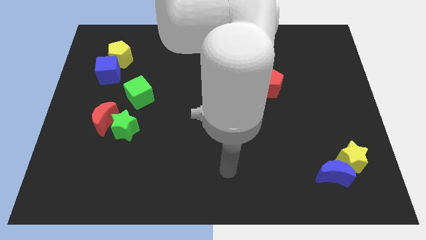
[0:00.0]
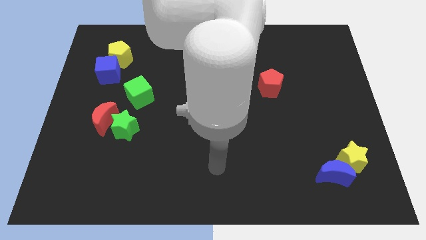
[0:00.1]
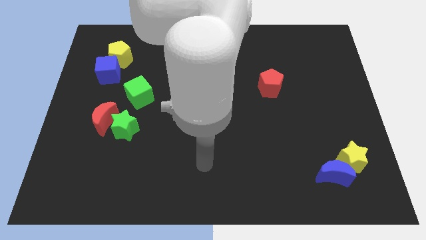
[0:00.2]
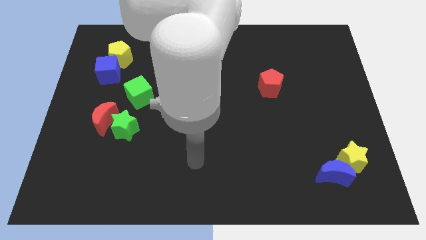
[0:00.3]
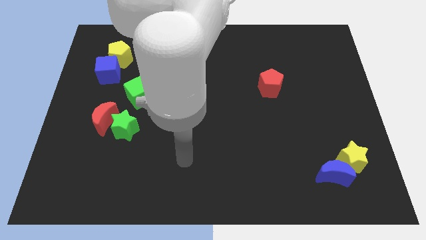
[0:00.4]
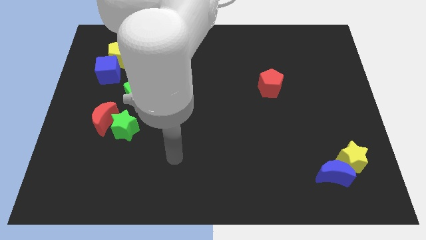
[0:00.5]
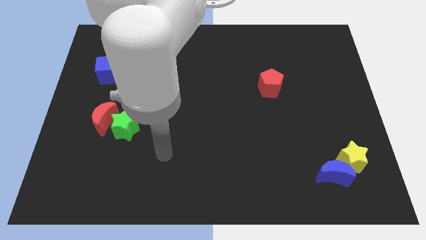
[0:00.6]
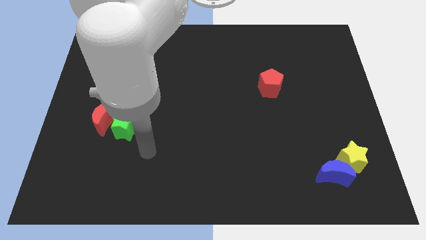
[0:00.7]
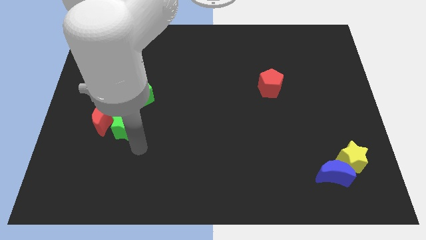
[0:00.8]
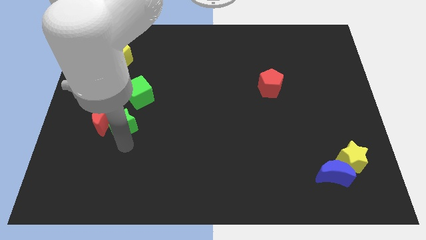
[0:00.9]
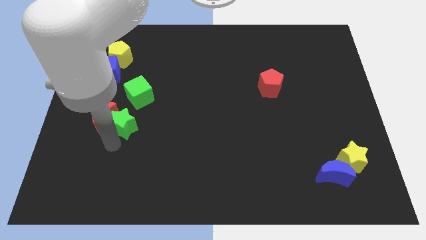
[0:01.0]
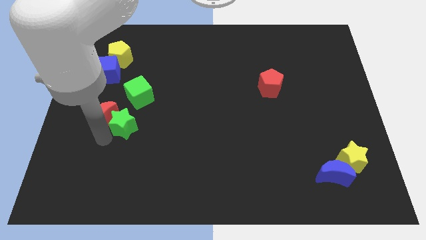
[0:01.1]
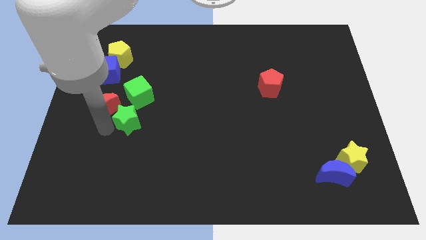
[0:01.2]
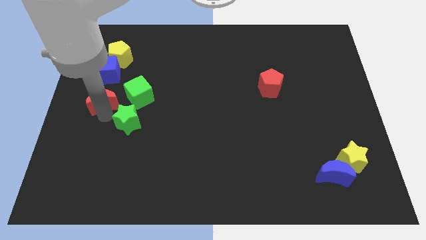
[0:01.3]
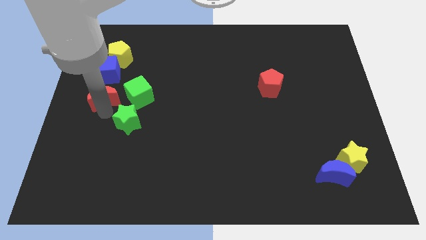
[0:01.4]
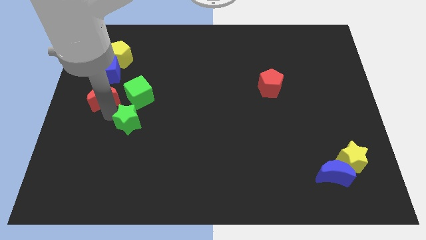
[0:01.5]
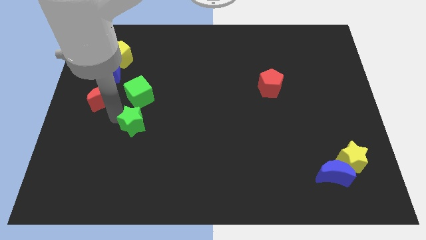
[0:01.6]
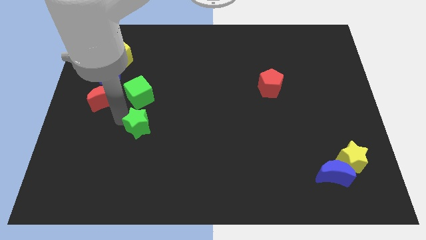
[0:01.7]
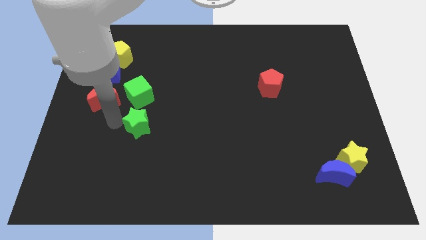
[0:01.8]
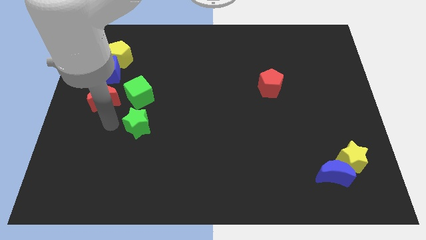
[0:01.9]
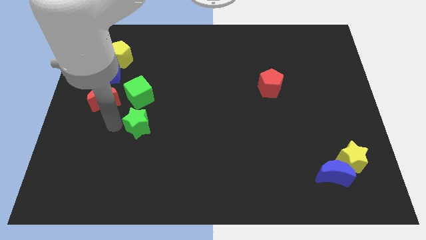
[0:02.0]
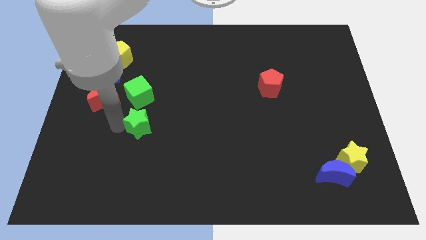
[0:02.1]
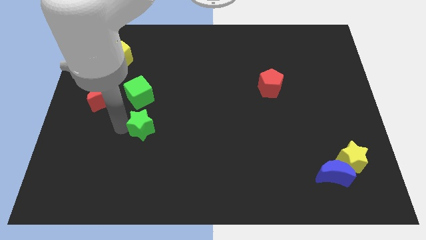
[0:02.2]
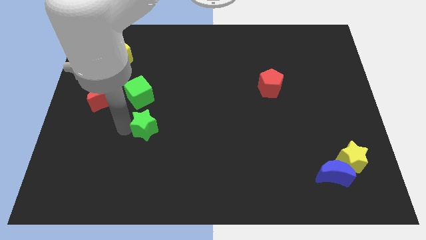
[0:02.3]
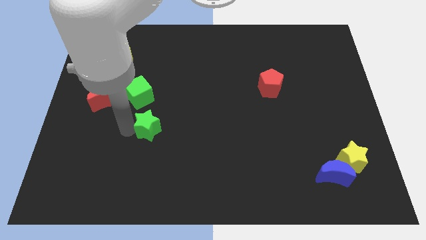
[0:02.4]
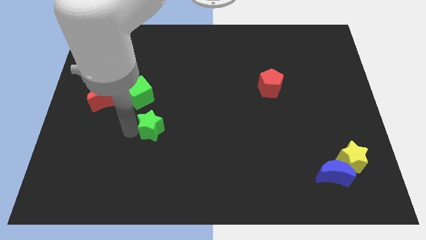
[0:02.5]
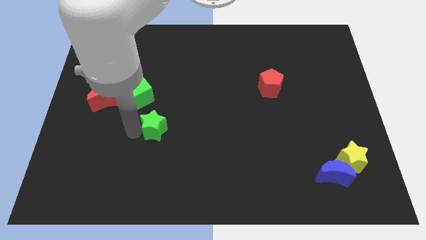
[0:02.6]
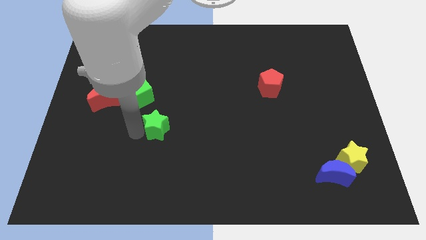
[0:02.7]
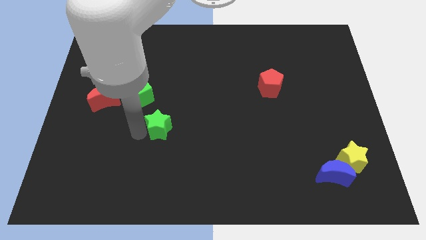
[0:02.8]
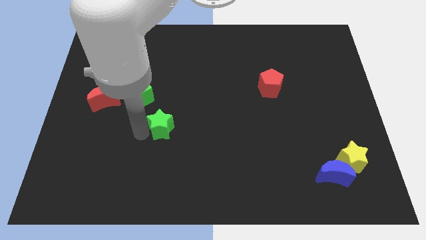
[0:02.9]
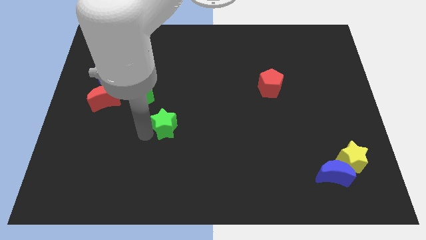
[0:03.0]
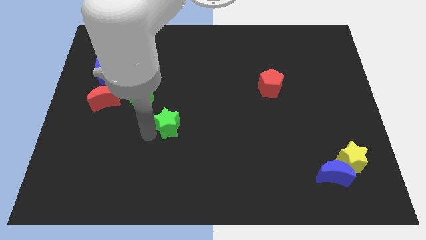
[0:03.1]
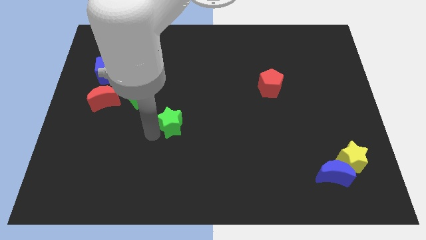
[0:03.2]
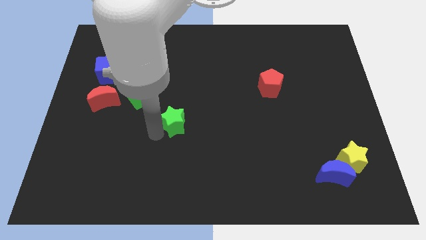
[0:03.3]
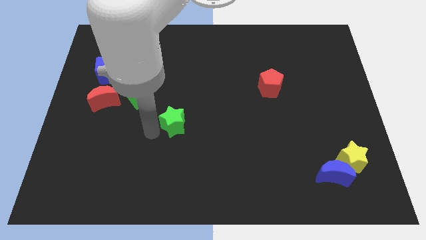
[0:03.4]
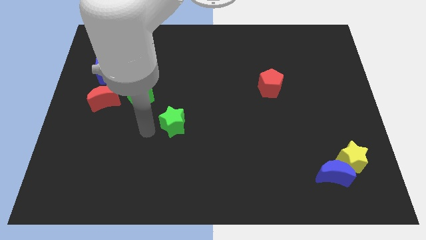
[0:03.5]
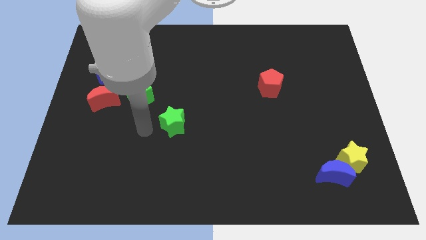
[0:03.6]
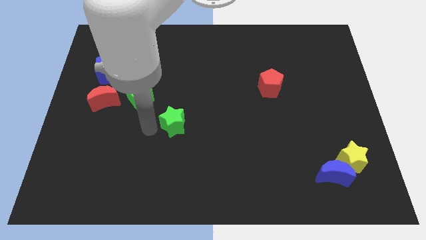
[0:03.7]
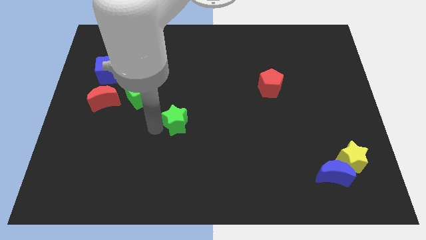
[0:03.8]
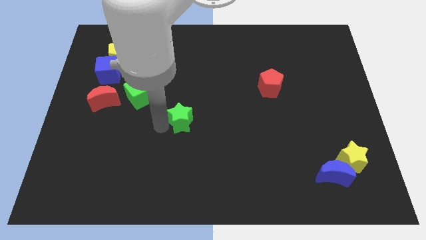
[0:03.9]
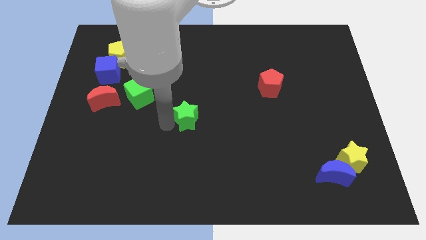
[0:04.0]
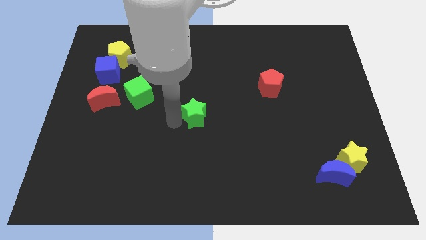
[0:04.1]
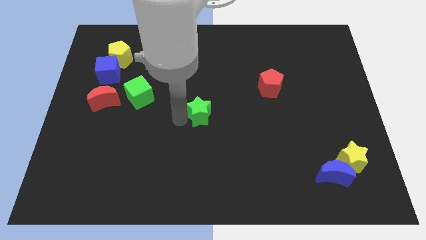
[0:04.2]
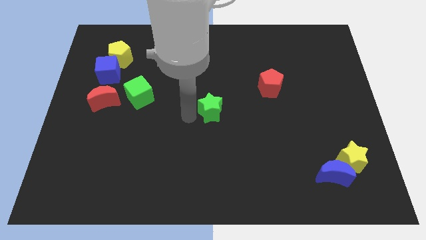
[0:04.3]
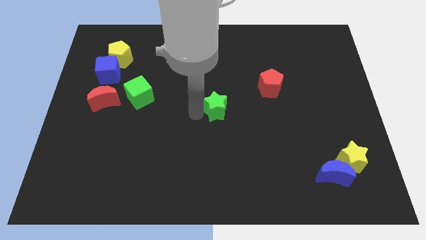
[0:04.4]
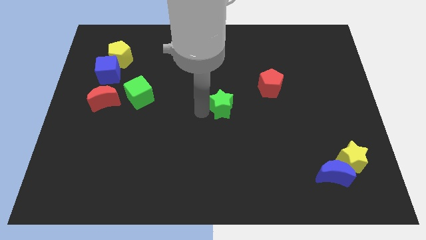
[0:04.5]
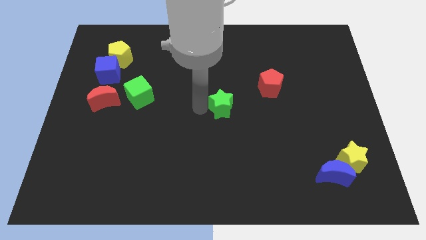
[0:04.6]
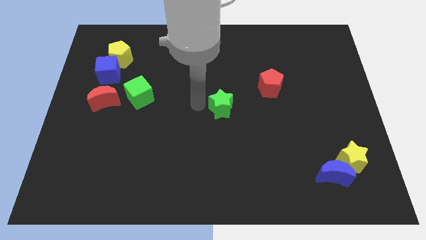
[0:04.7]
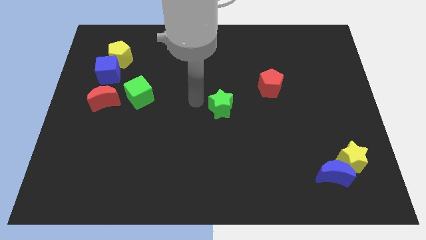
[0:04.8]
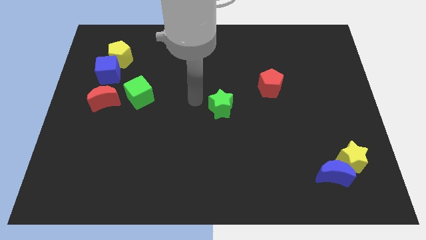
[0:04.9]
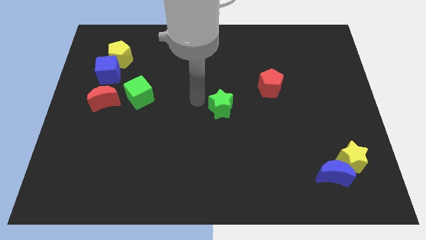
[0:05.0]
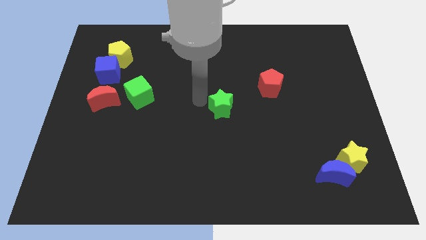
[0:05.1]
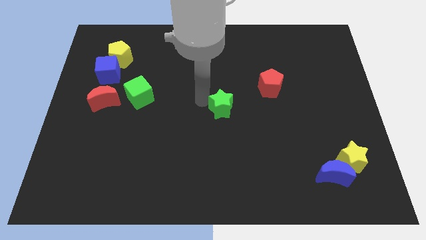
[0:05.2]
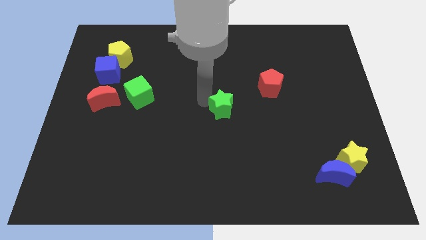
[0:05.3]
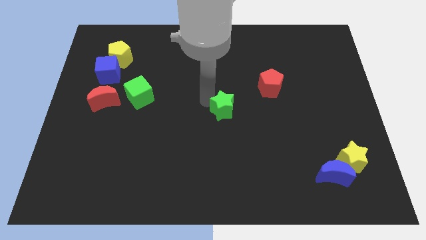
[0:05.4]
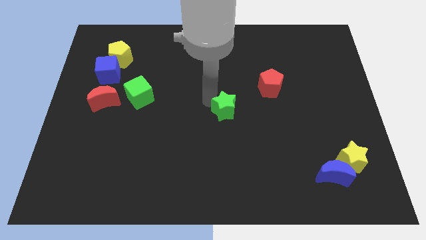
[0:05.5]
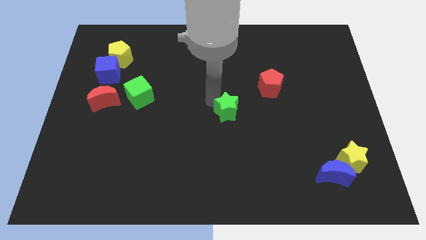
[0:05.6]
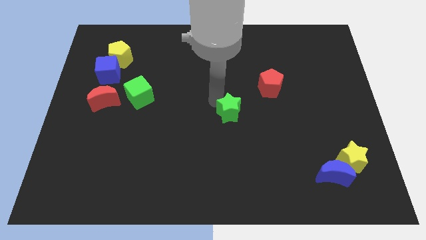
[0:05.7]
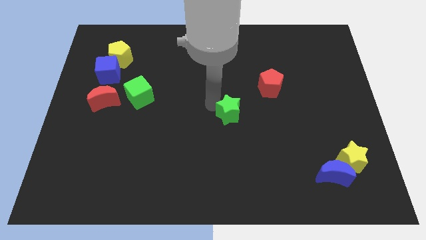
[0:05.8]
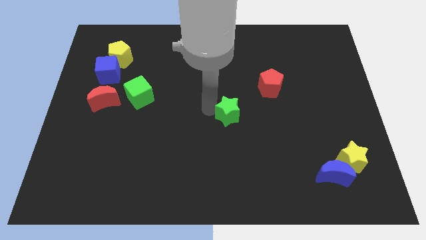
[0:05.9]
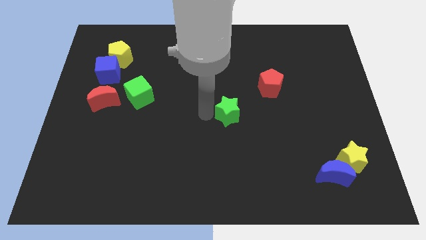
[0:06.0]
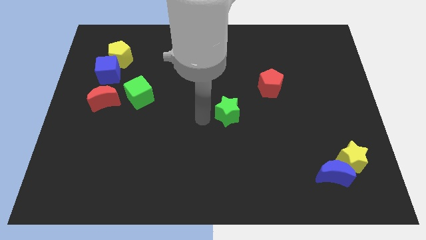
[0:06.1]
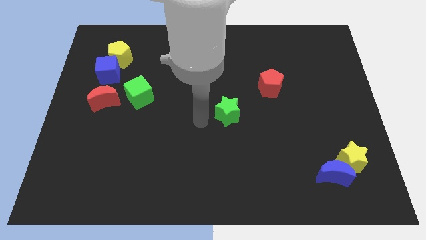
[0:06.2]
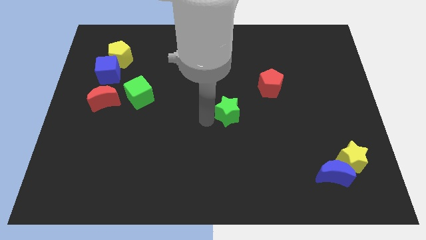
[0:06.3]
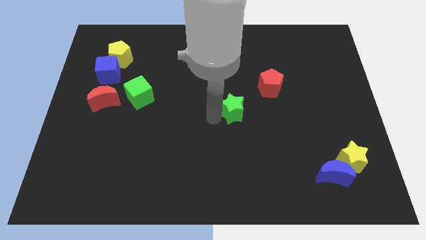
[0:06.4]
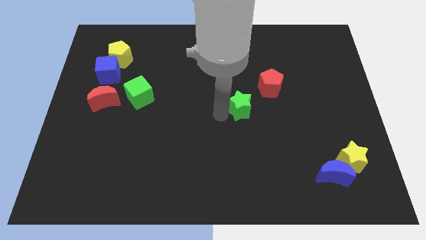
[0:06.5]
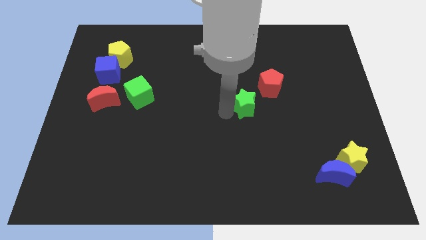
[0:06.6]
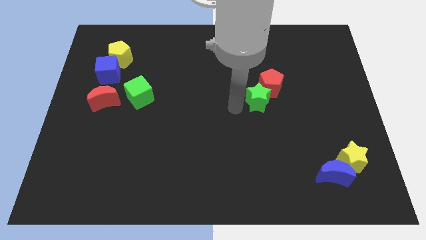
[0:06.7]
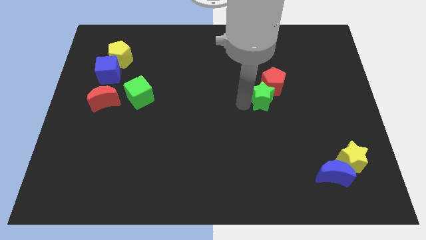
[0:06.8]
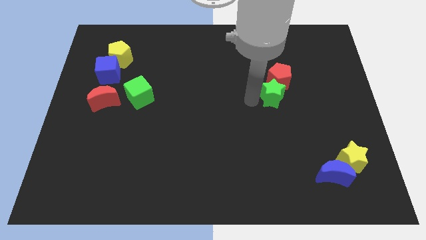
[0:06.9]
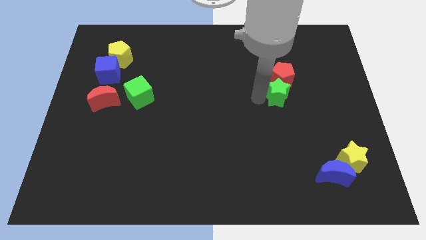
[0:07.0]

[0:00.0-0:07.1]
slide the green star to the bottom right side of the red pentagon

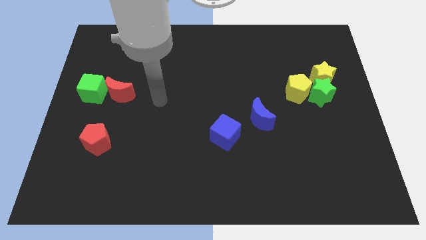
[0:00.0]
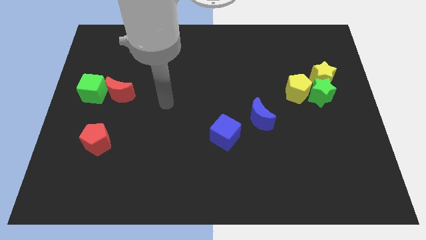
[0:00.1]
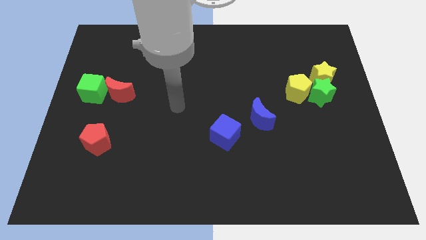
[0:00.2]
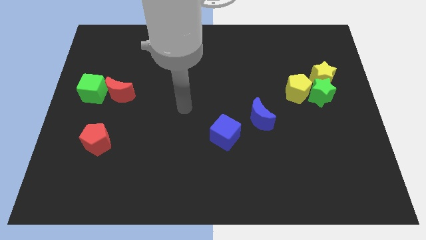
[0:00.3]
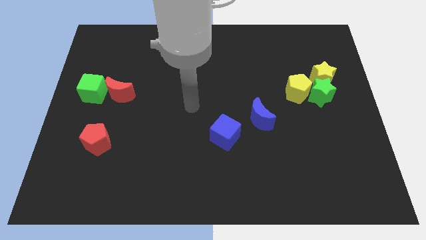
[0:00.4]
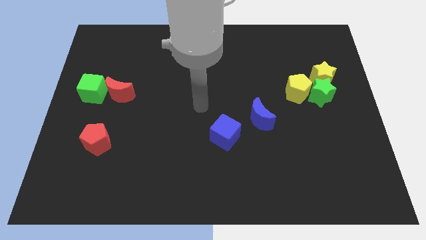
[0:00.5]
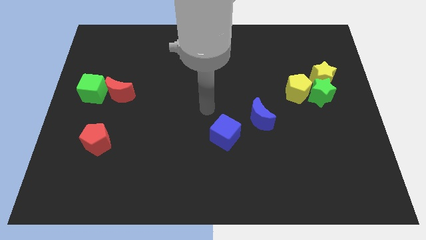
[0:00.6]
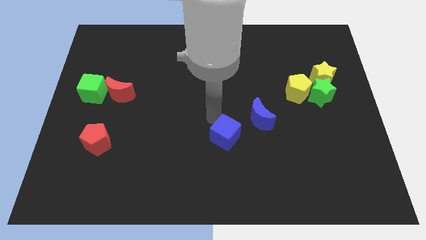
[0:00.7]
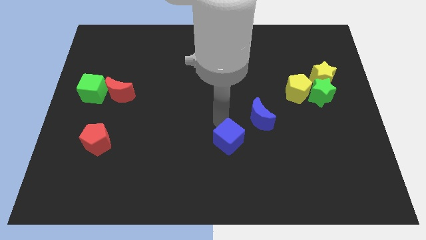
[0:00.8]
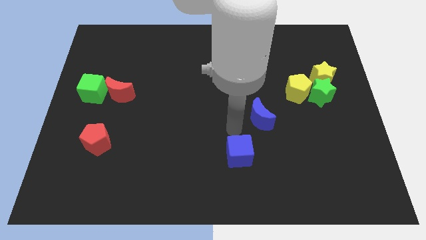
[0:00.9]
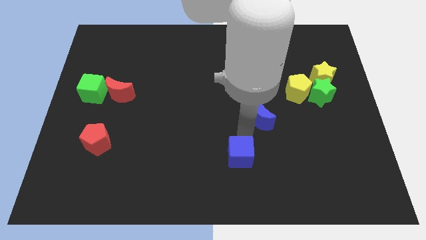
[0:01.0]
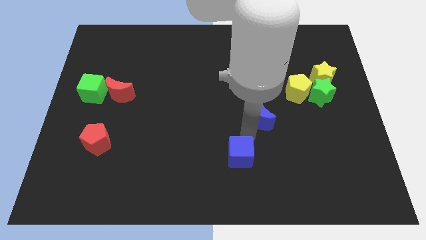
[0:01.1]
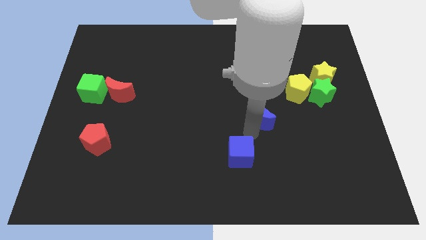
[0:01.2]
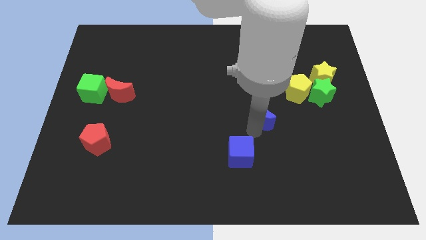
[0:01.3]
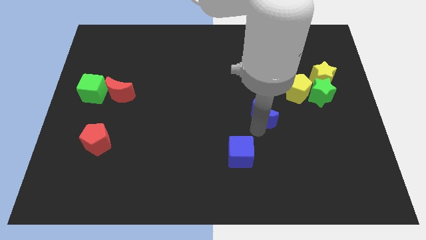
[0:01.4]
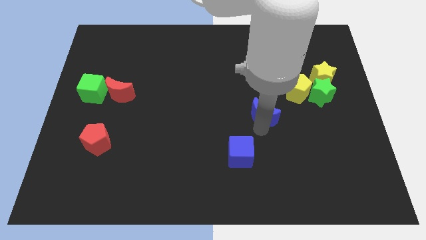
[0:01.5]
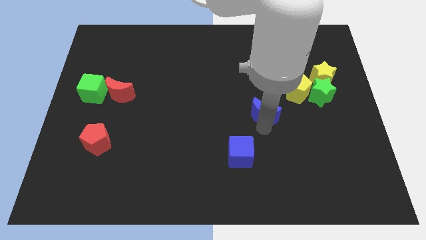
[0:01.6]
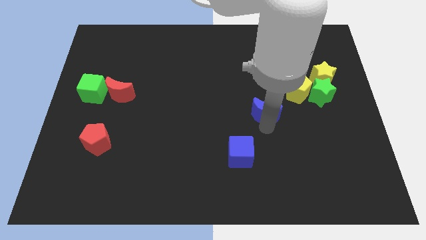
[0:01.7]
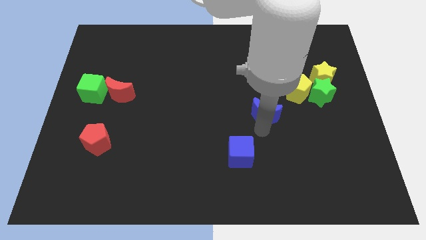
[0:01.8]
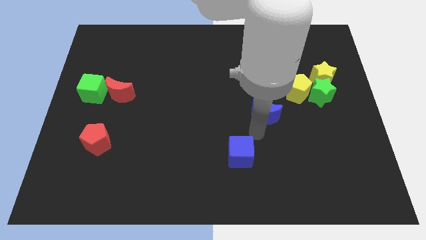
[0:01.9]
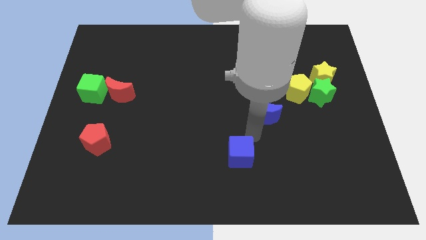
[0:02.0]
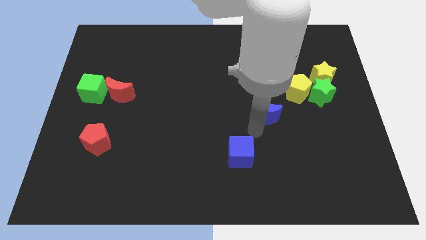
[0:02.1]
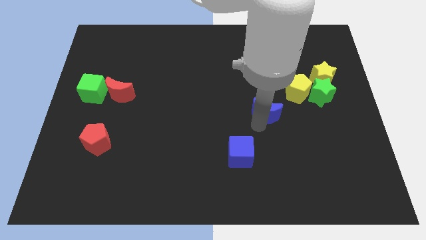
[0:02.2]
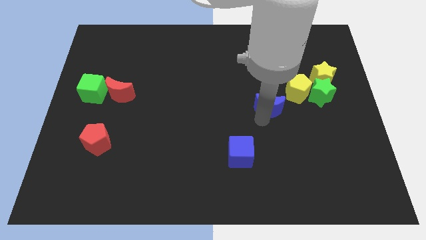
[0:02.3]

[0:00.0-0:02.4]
move the blue moon left of the green star
